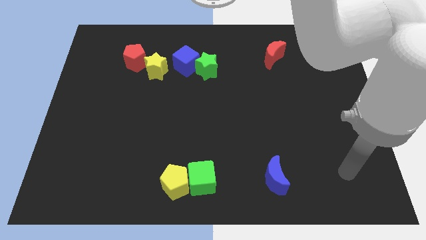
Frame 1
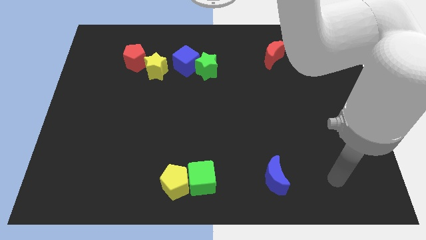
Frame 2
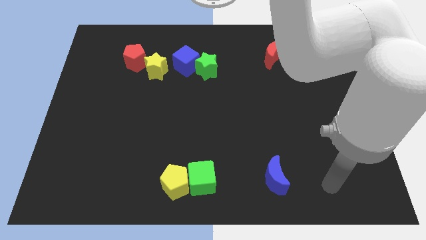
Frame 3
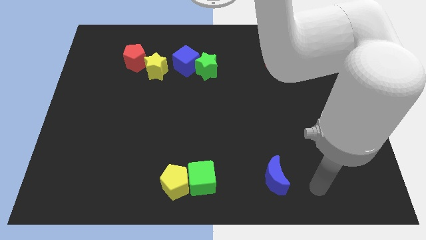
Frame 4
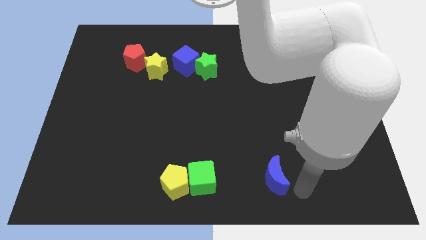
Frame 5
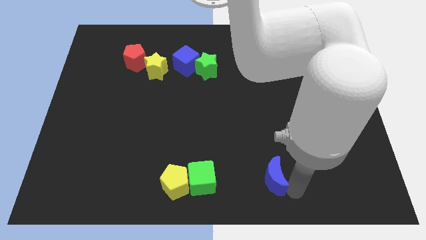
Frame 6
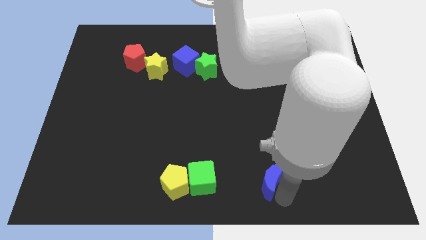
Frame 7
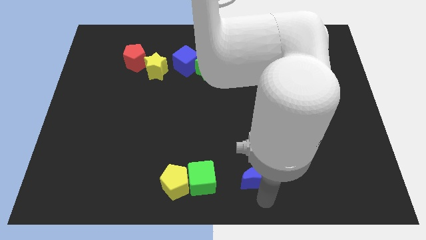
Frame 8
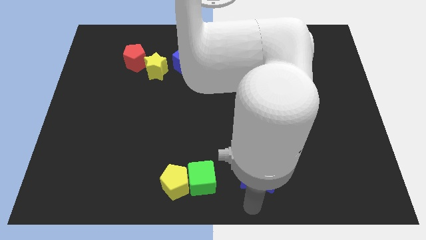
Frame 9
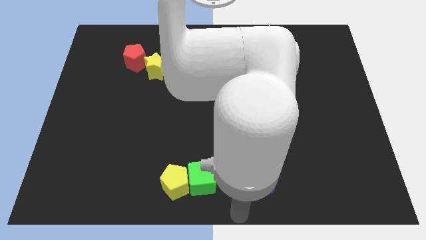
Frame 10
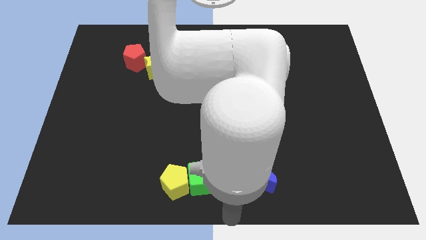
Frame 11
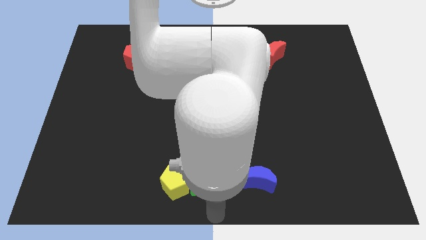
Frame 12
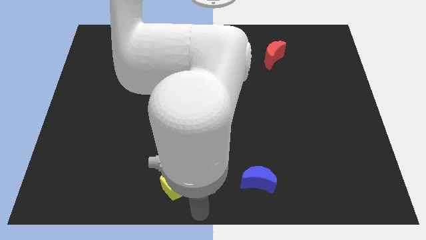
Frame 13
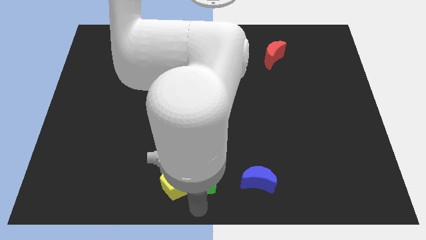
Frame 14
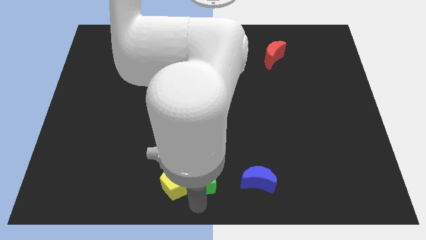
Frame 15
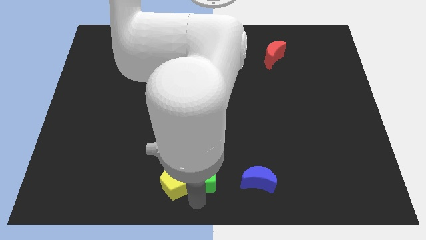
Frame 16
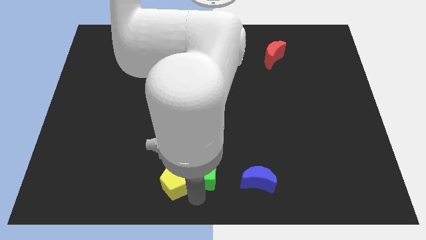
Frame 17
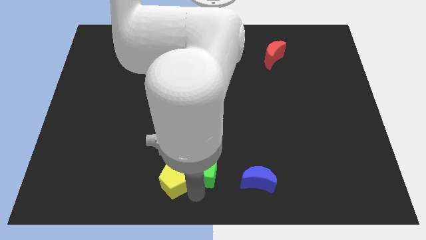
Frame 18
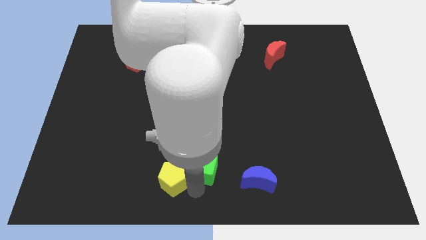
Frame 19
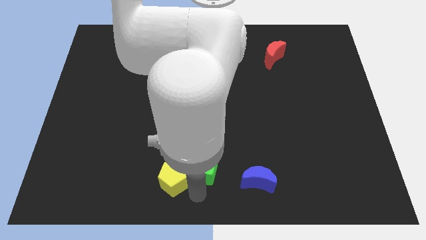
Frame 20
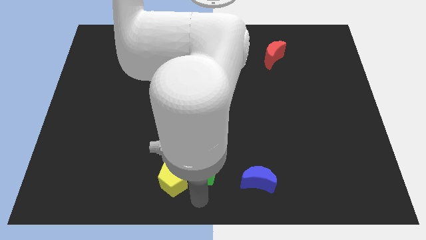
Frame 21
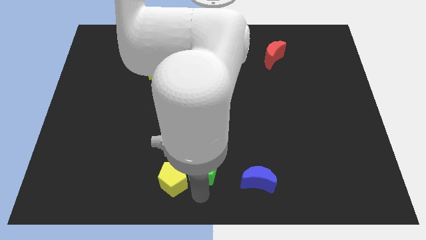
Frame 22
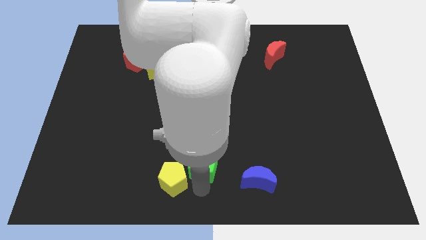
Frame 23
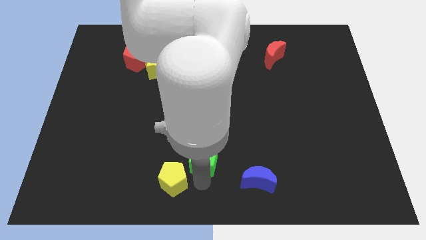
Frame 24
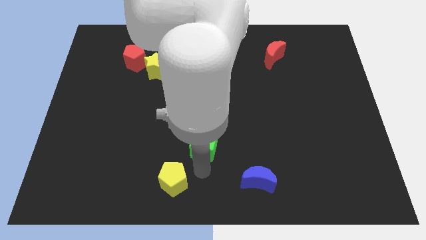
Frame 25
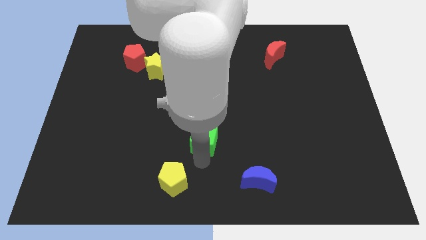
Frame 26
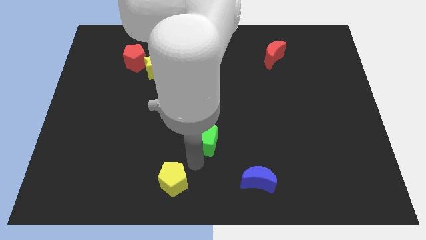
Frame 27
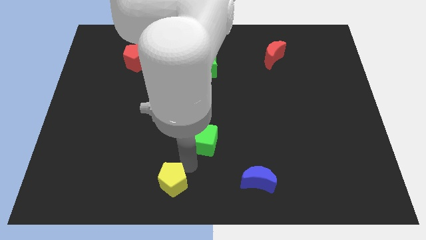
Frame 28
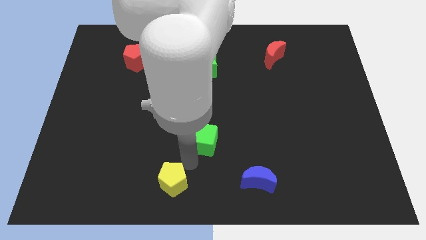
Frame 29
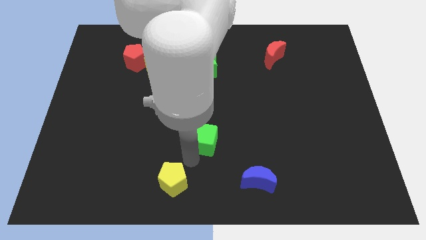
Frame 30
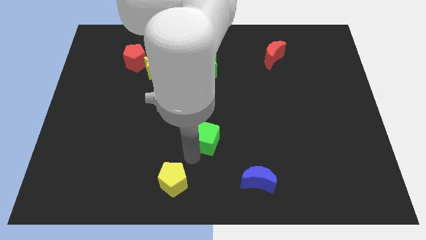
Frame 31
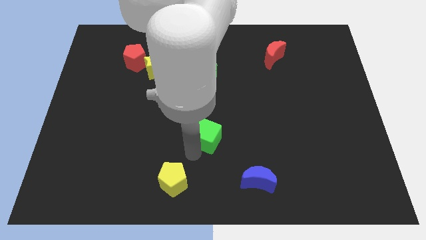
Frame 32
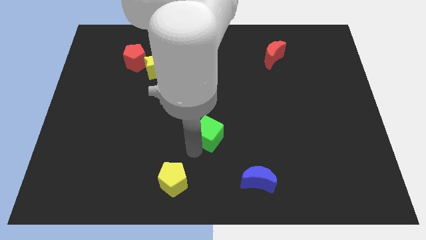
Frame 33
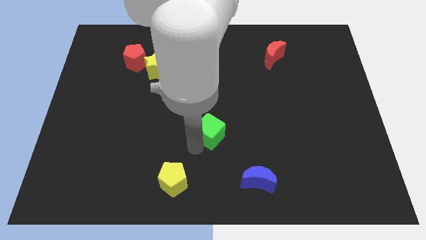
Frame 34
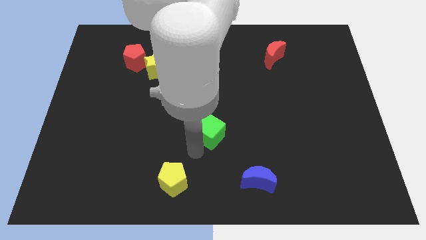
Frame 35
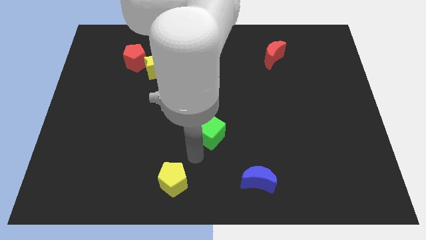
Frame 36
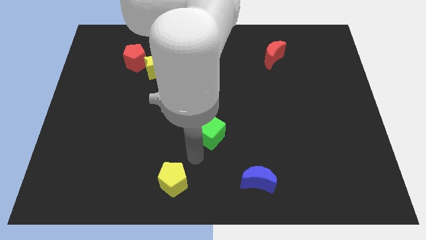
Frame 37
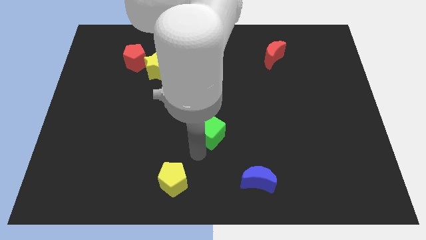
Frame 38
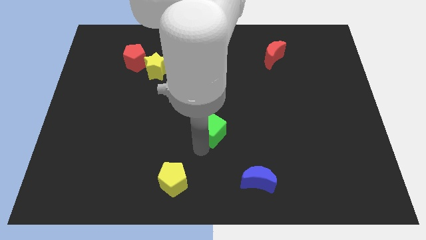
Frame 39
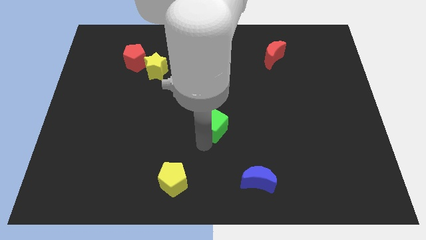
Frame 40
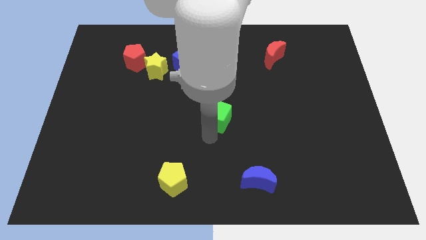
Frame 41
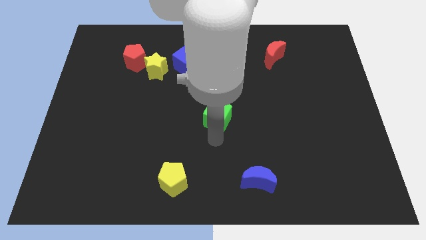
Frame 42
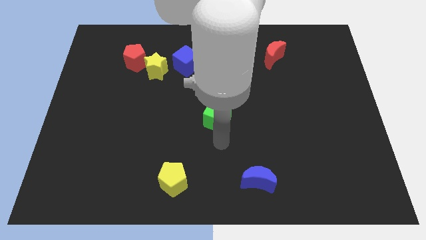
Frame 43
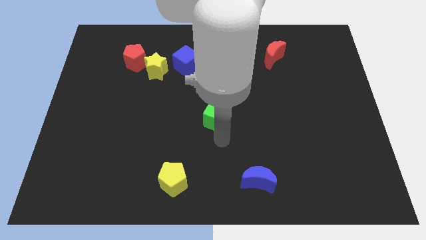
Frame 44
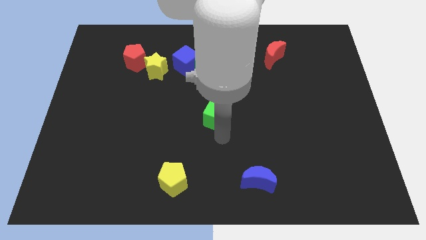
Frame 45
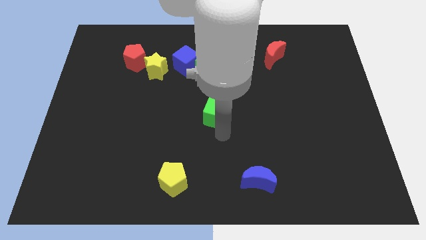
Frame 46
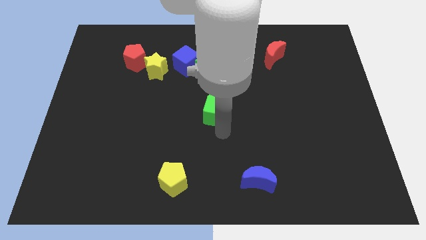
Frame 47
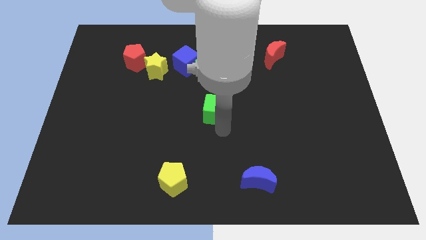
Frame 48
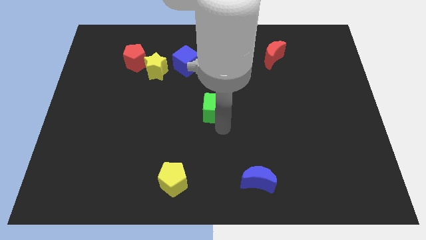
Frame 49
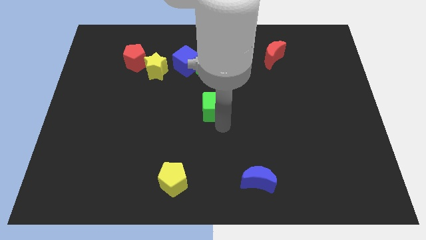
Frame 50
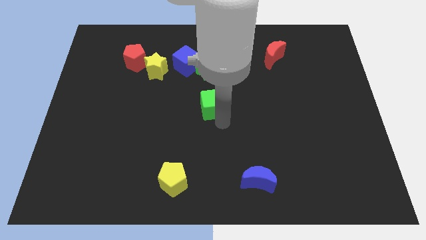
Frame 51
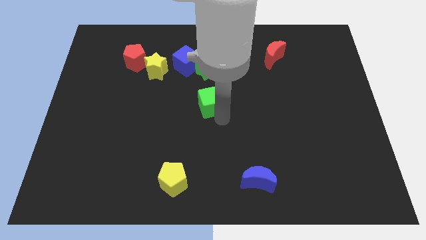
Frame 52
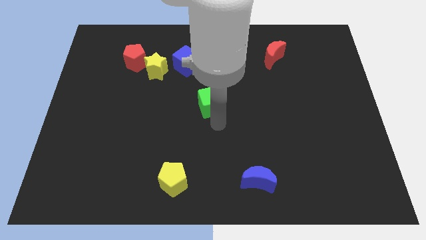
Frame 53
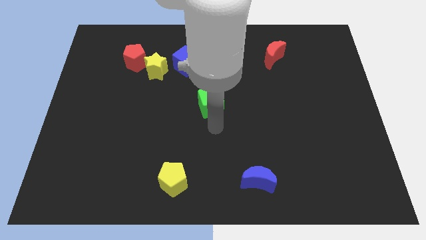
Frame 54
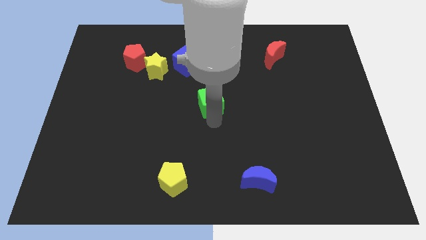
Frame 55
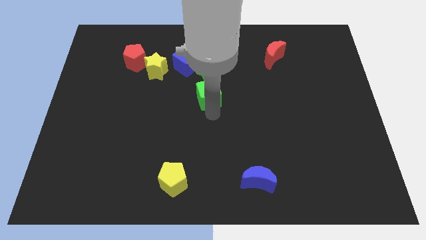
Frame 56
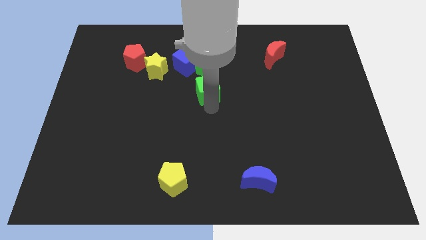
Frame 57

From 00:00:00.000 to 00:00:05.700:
move the green cube to the bottom right side of the blue cube

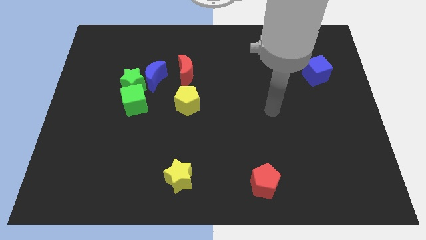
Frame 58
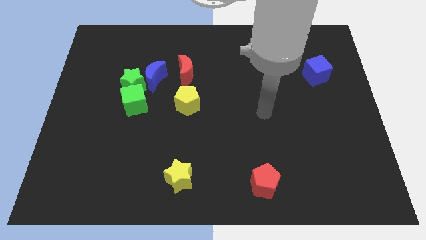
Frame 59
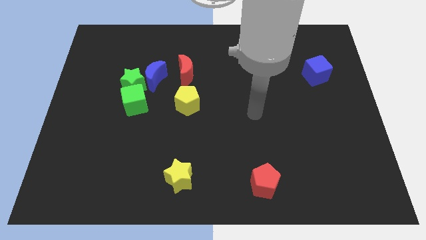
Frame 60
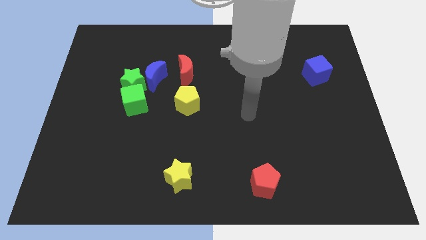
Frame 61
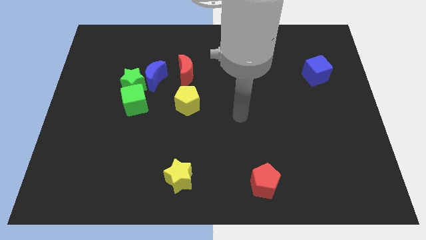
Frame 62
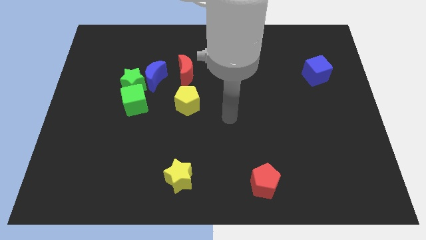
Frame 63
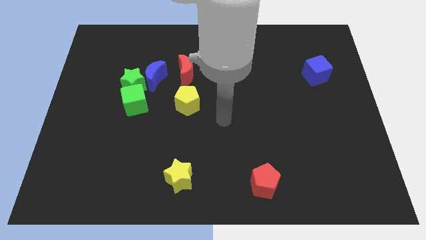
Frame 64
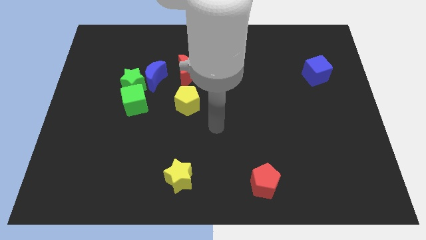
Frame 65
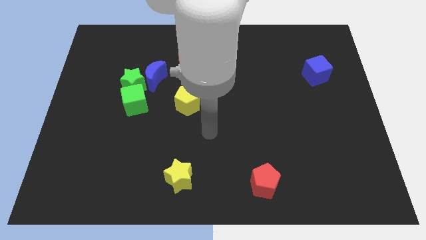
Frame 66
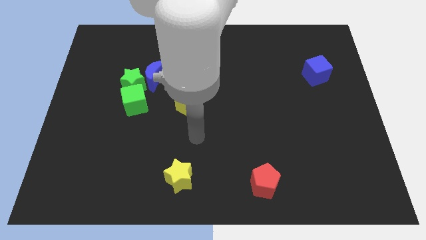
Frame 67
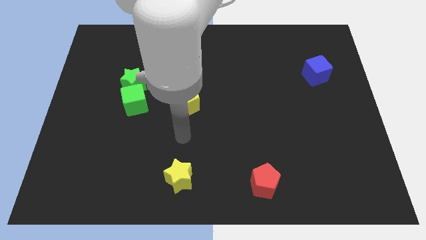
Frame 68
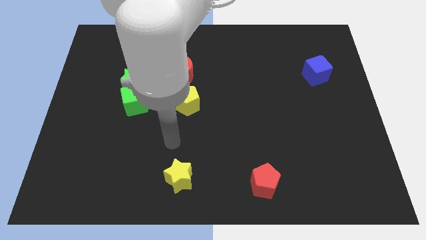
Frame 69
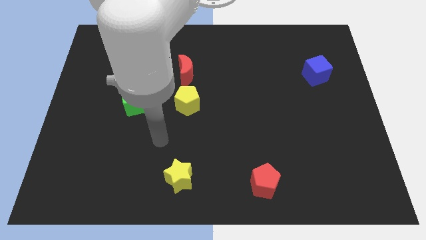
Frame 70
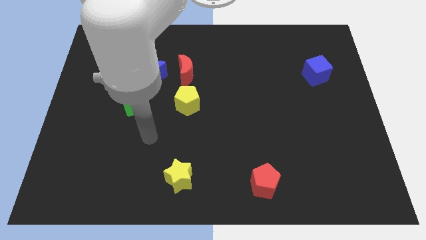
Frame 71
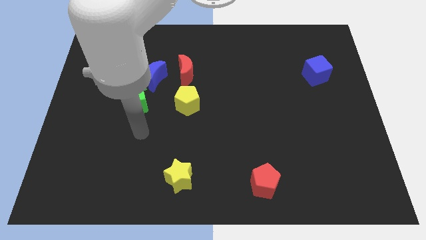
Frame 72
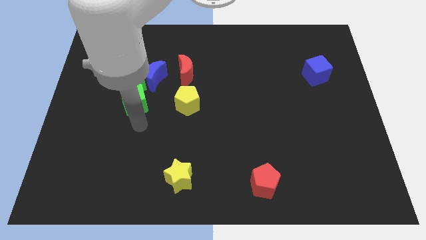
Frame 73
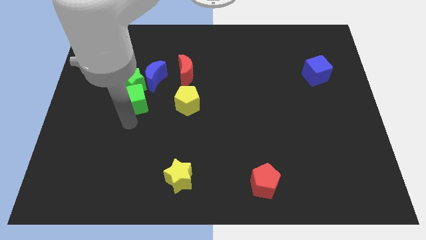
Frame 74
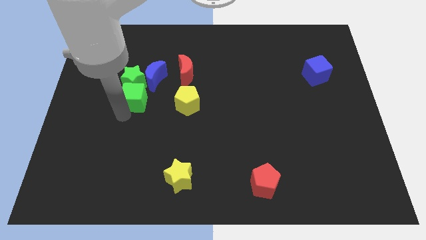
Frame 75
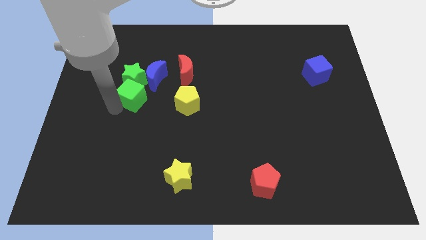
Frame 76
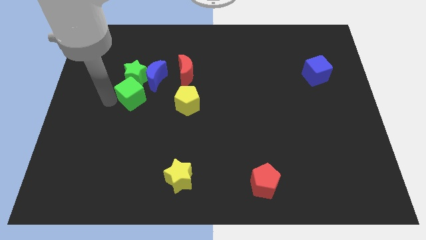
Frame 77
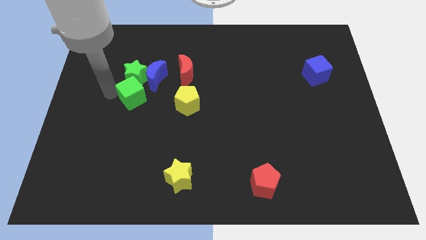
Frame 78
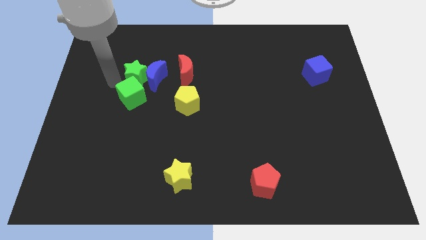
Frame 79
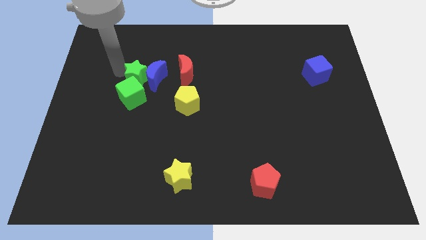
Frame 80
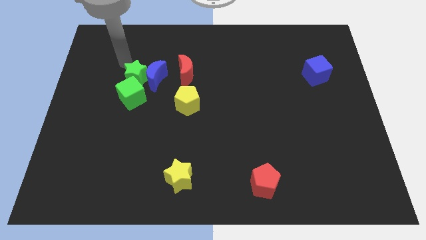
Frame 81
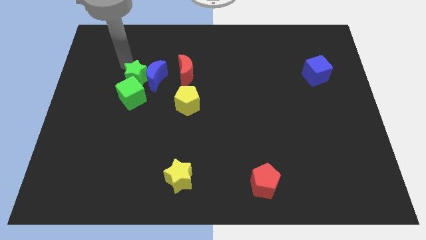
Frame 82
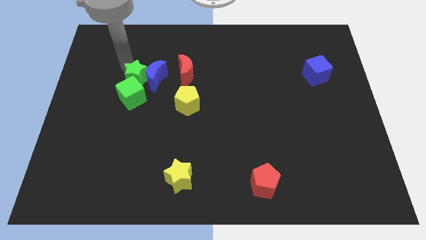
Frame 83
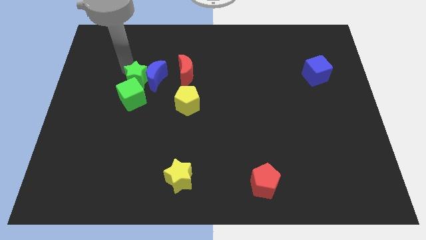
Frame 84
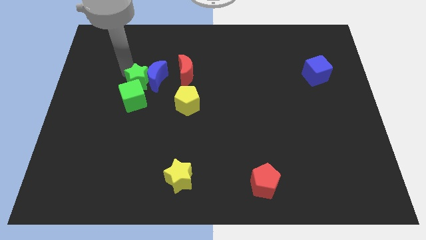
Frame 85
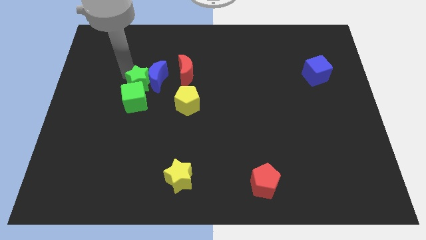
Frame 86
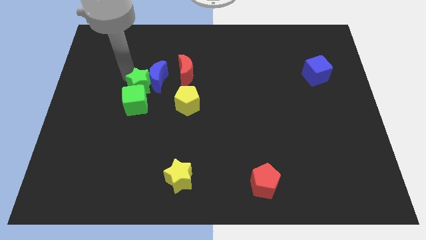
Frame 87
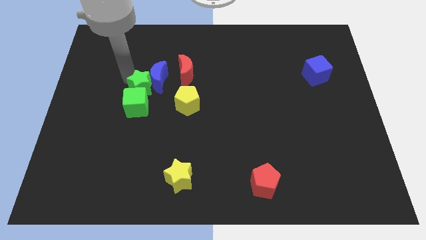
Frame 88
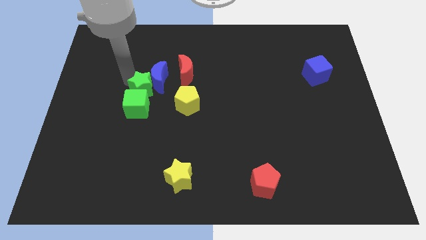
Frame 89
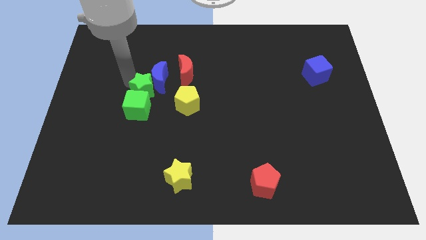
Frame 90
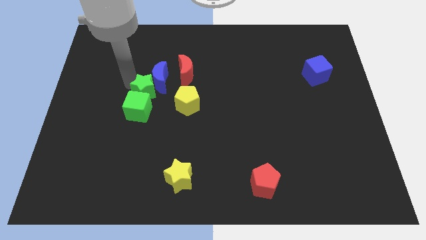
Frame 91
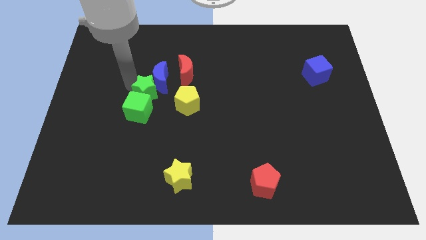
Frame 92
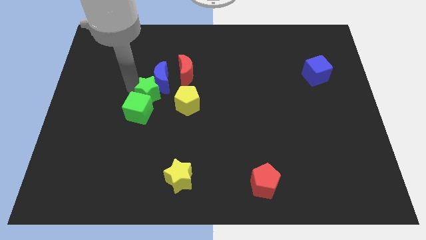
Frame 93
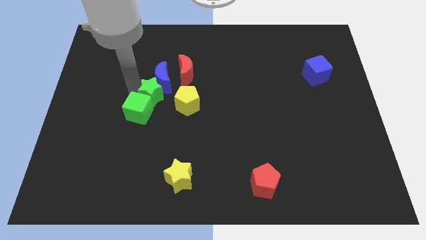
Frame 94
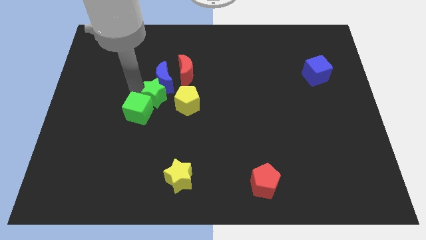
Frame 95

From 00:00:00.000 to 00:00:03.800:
put the green star to the bottom right of the blue moon
